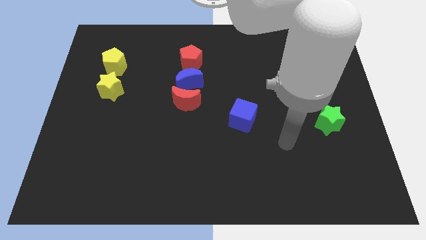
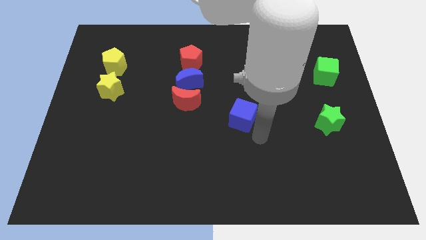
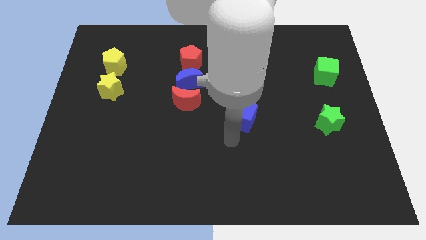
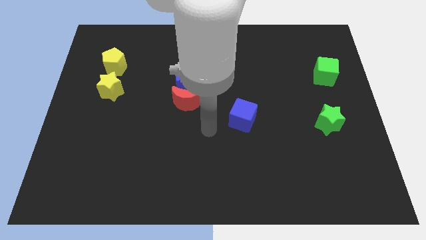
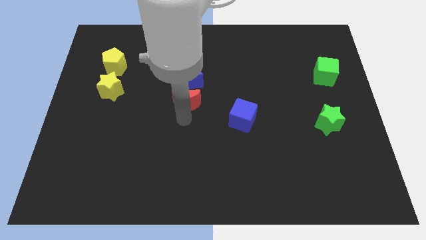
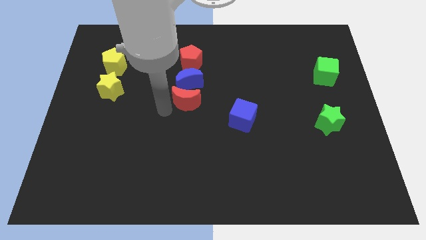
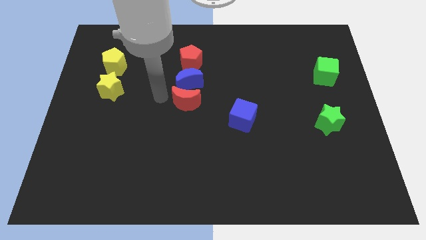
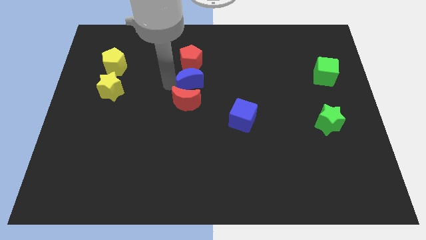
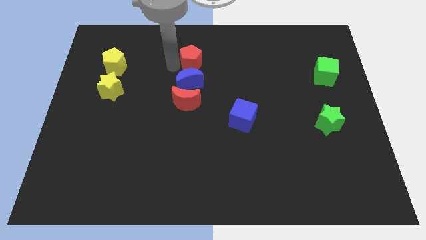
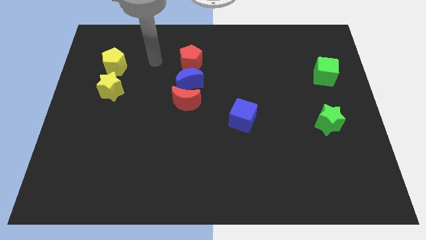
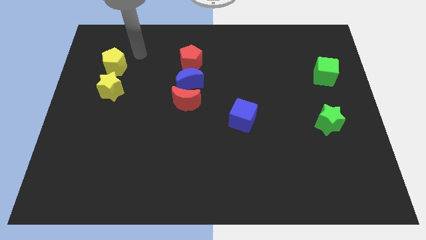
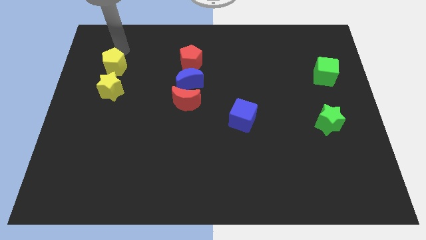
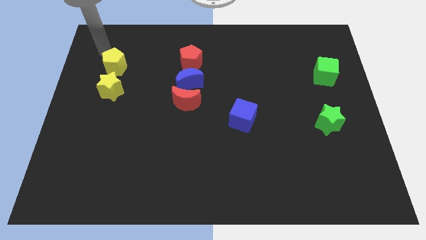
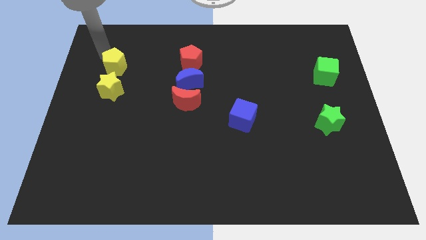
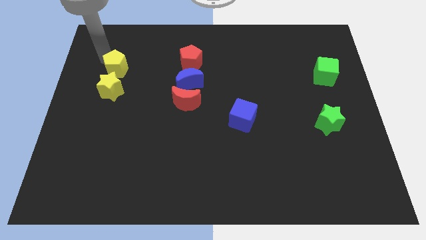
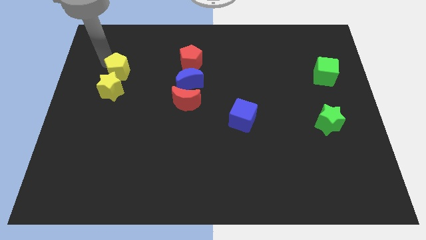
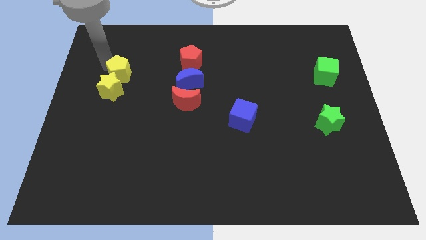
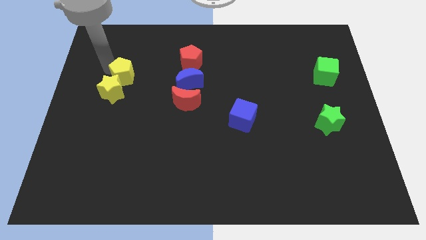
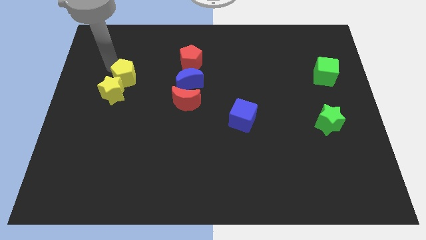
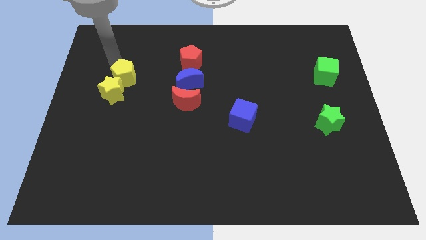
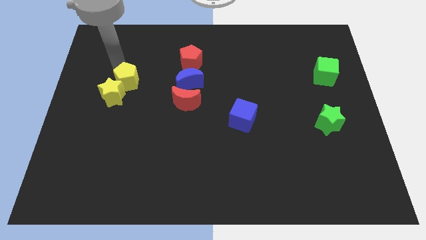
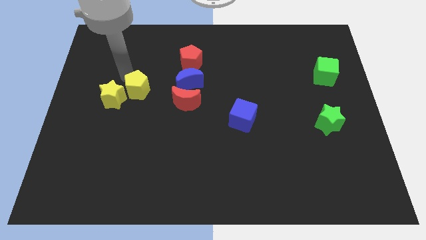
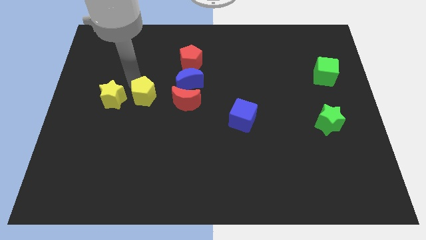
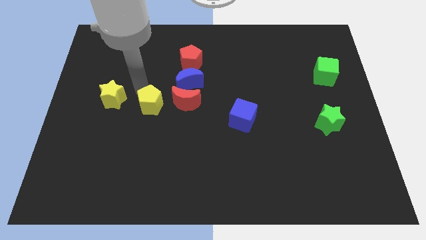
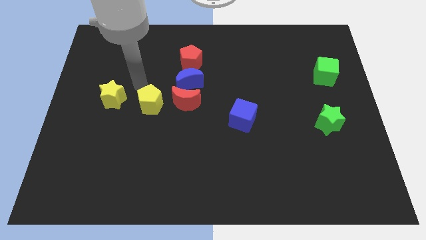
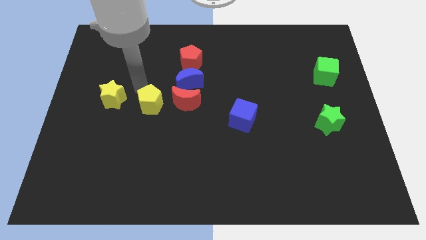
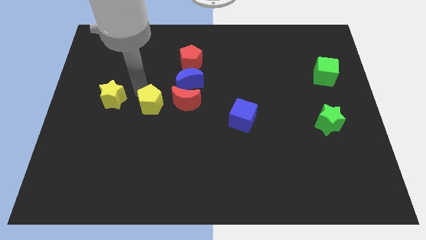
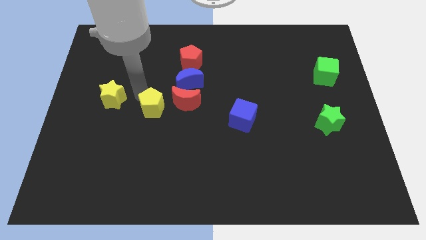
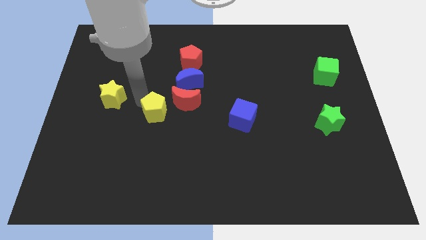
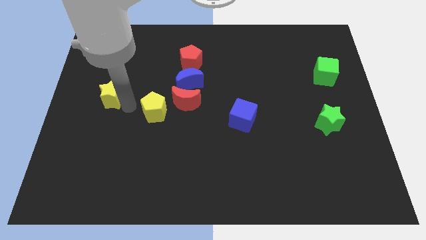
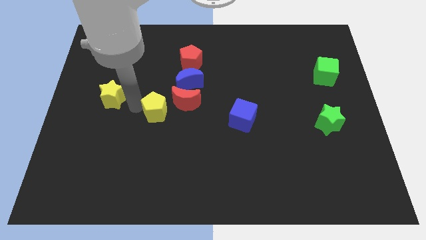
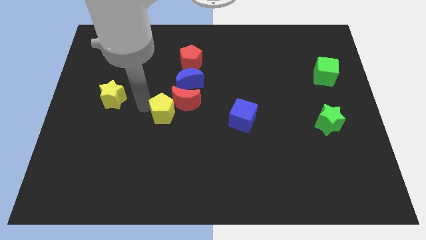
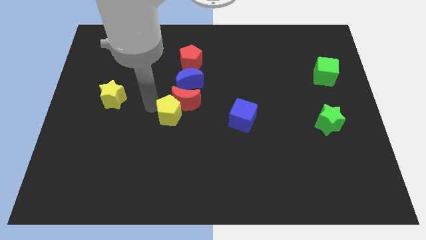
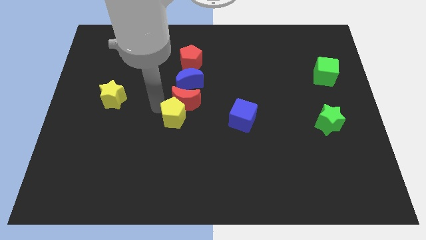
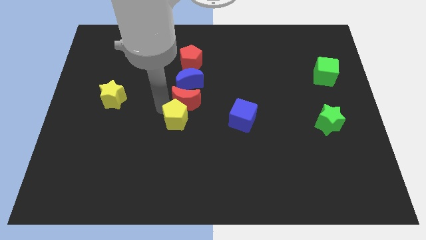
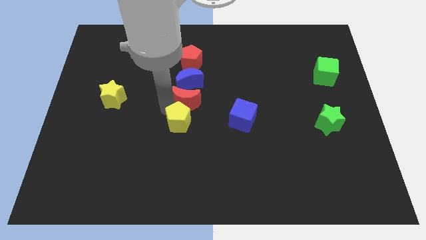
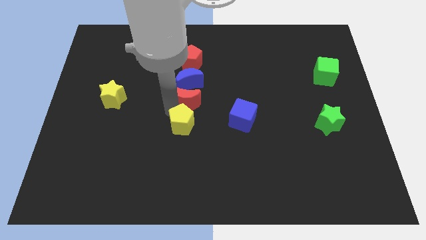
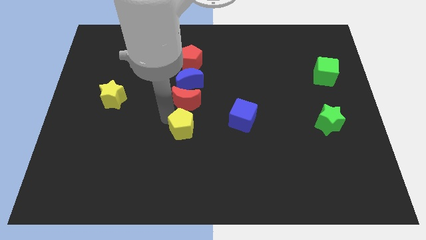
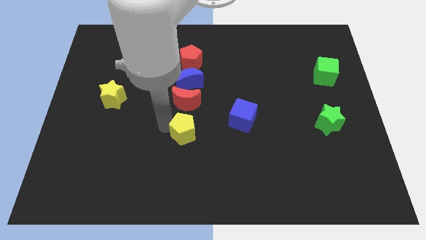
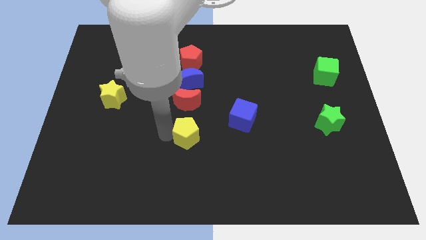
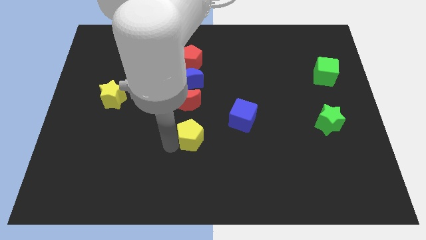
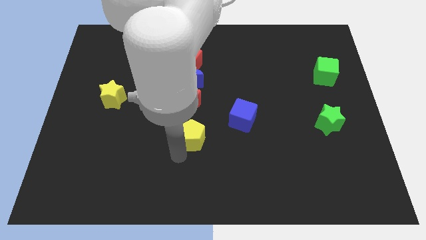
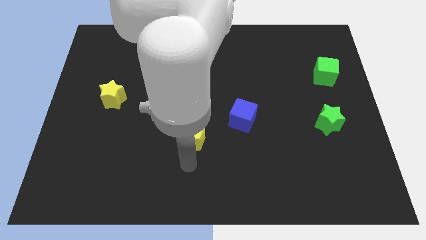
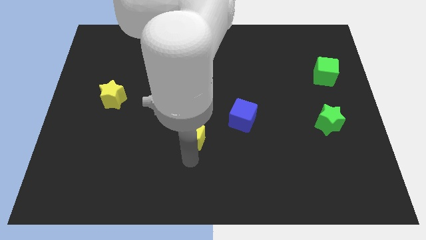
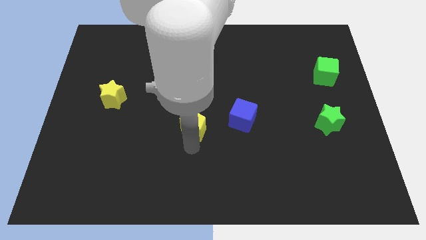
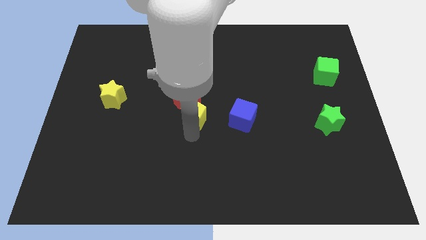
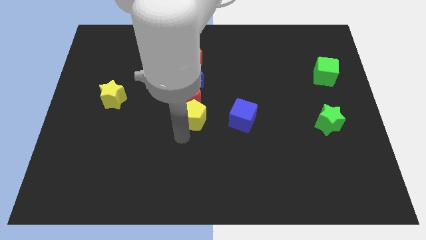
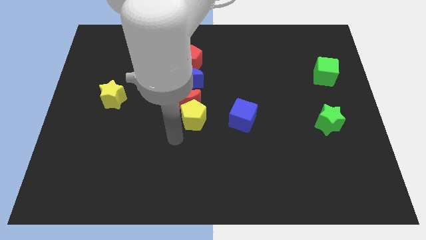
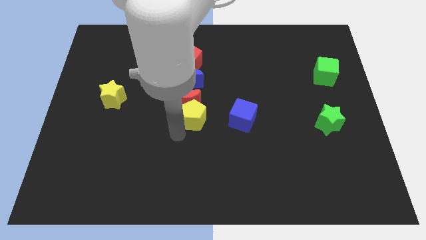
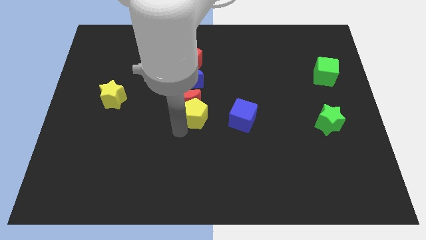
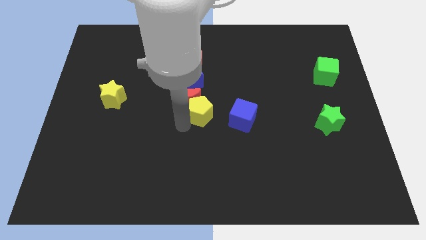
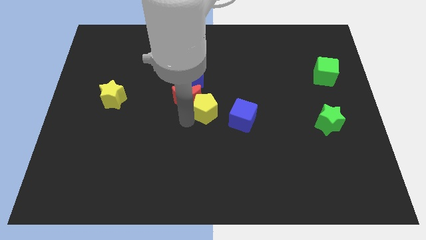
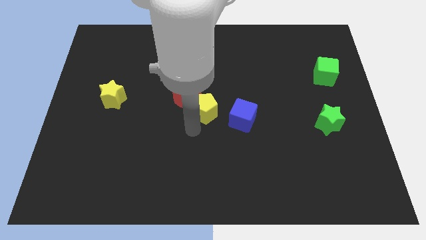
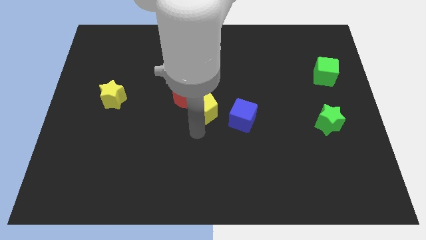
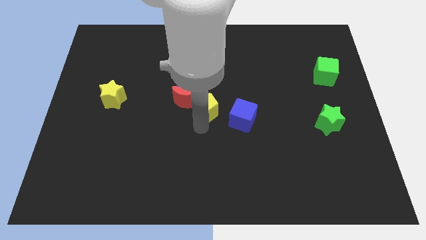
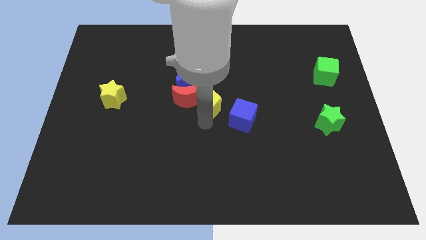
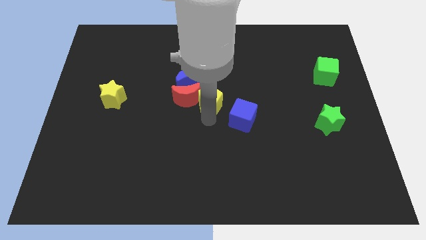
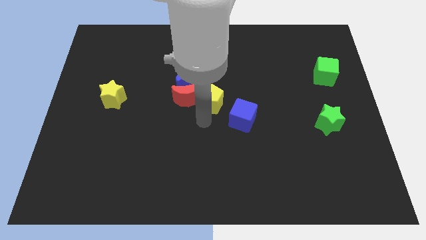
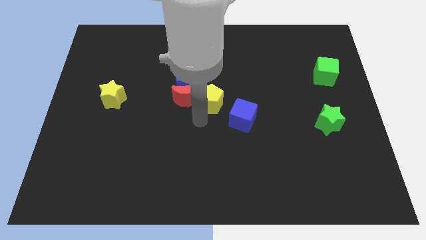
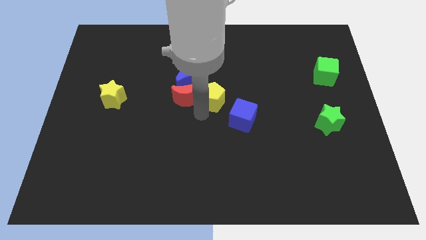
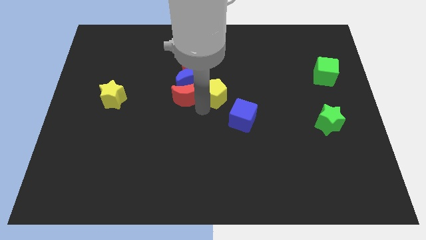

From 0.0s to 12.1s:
slide the yellow pentagon to the right

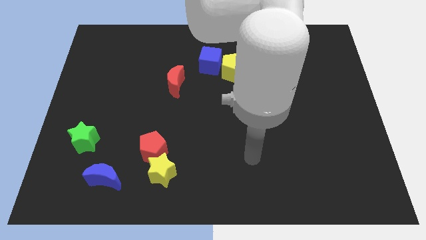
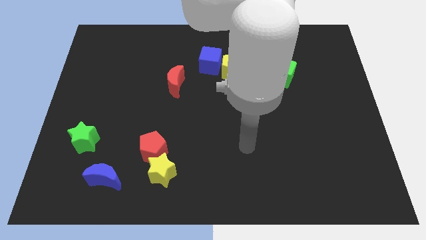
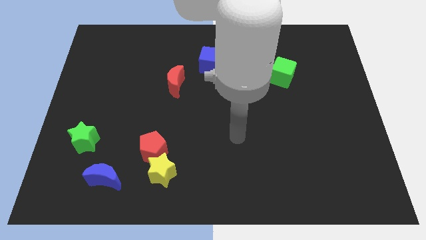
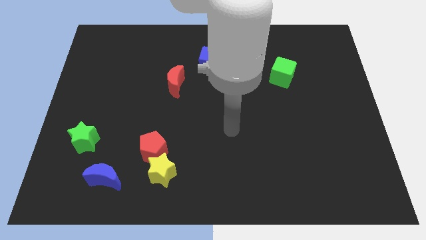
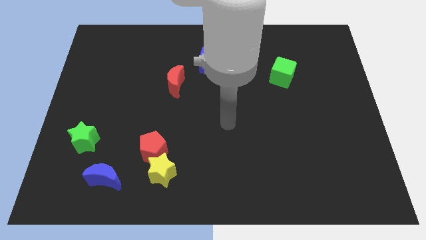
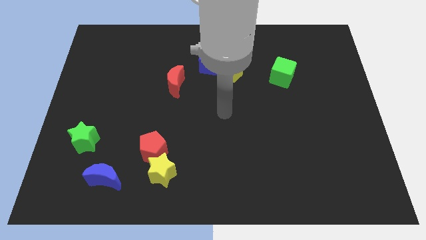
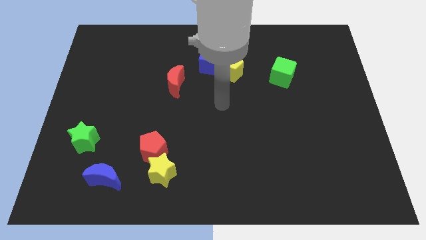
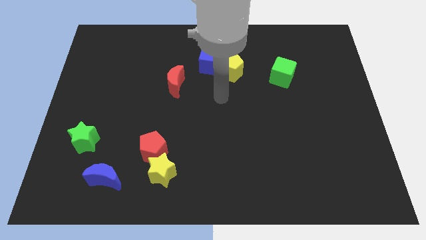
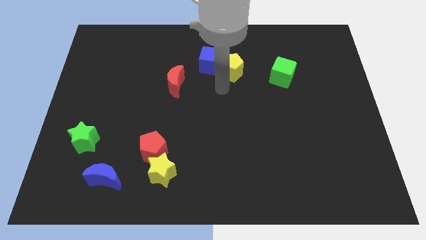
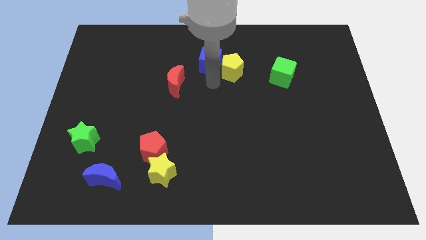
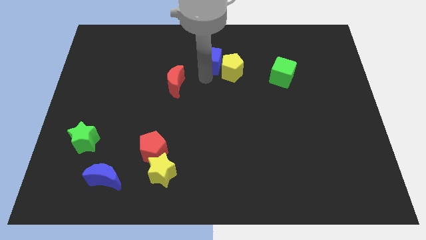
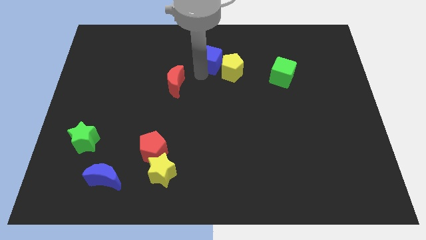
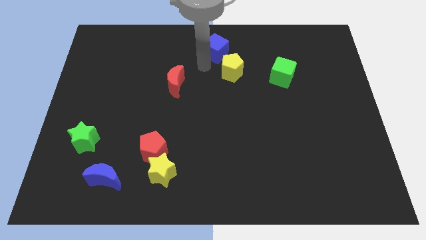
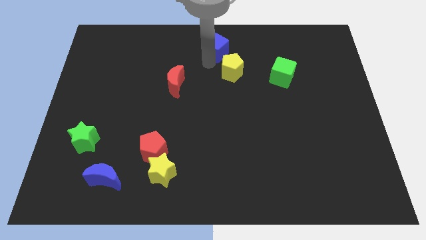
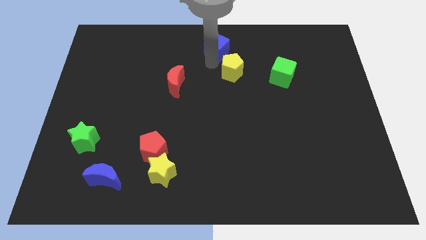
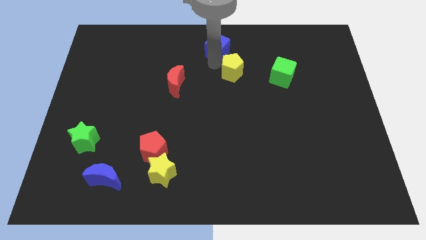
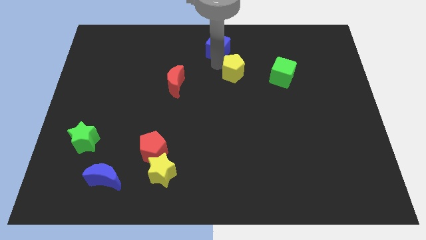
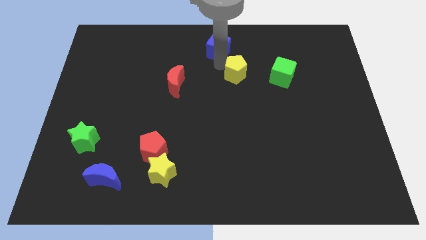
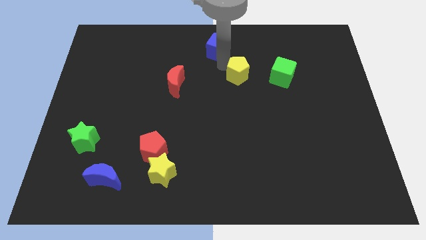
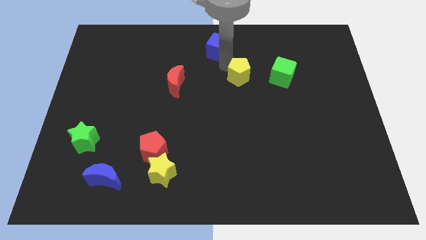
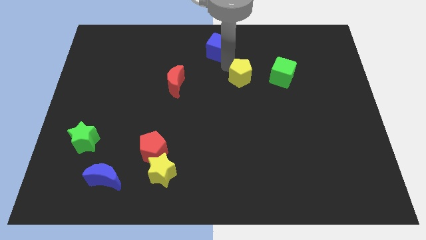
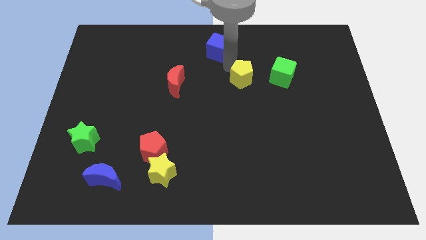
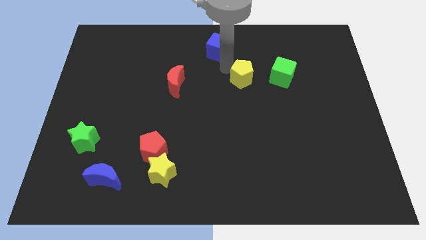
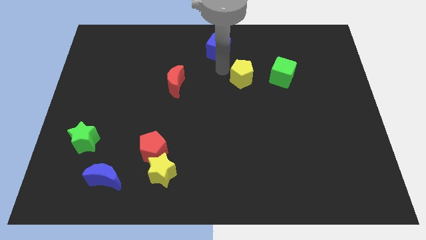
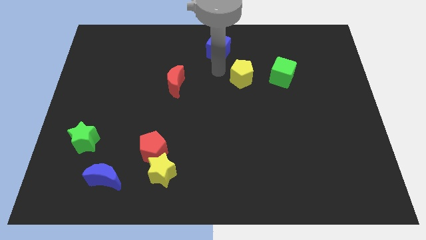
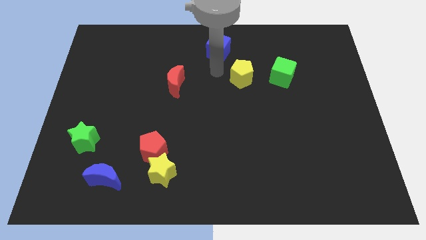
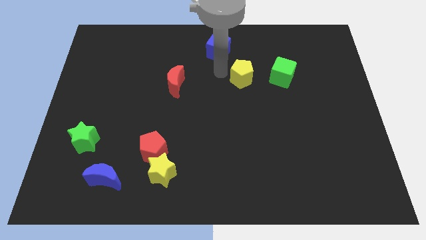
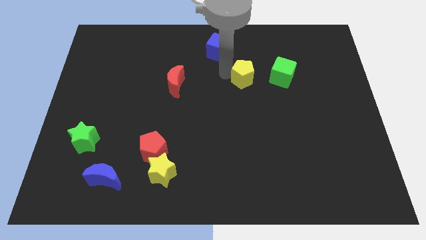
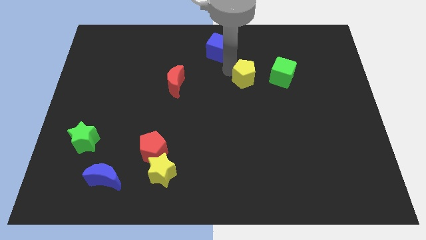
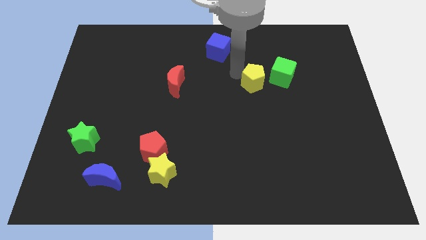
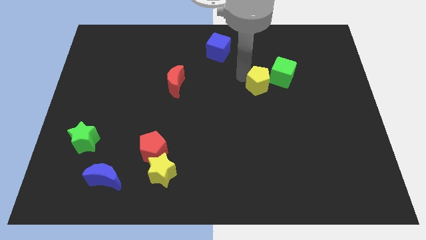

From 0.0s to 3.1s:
slide the yellow pentagon somewhat diagonally down and to the right
